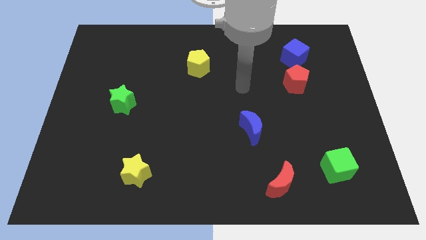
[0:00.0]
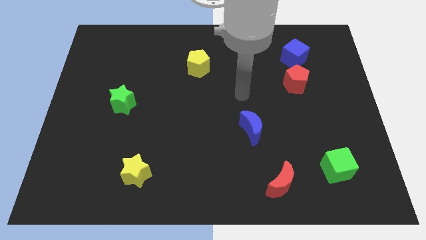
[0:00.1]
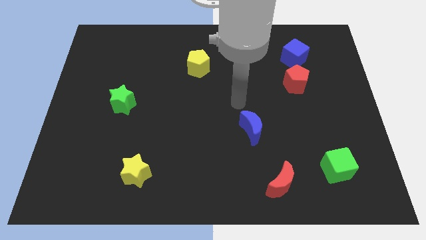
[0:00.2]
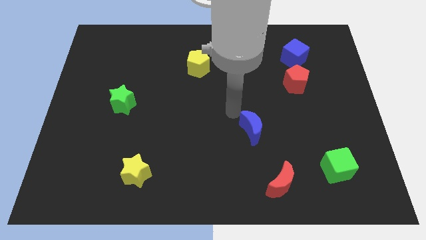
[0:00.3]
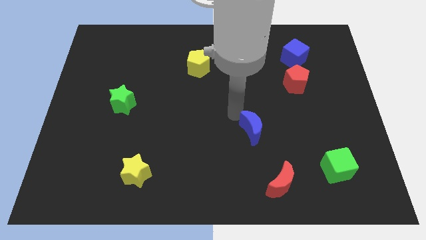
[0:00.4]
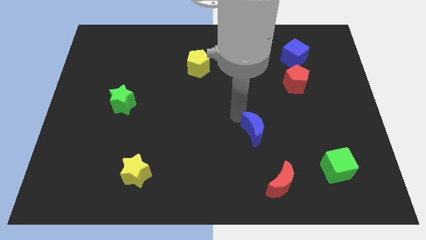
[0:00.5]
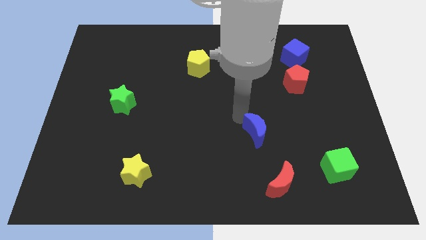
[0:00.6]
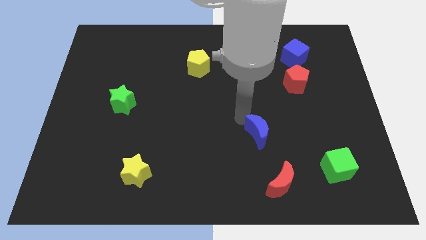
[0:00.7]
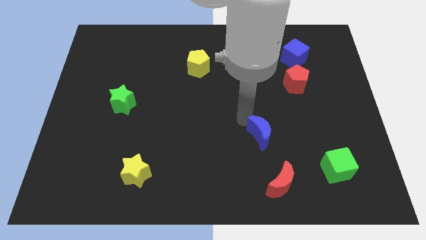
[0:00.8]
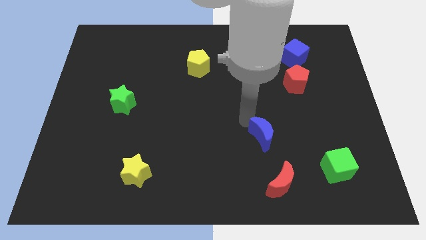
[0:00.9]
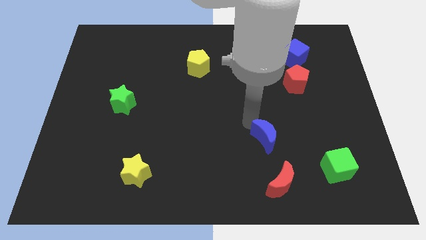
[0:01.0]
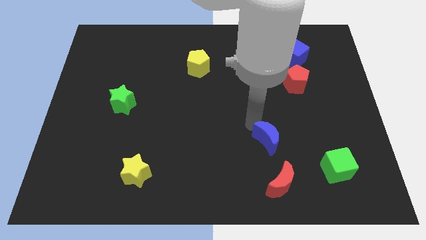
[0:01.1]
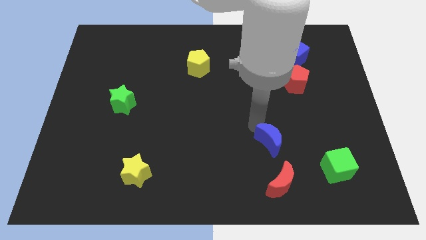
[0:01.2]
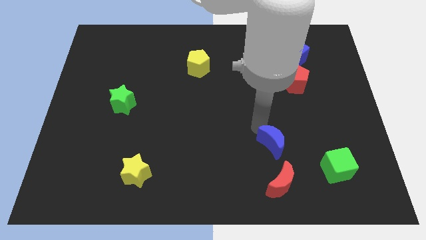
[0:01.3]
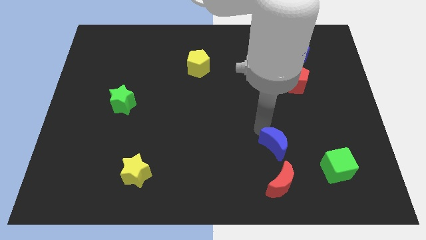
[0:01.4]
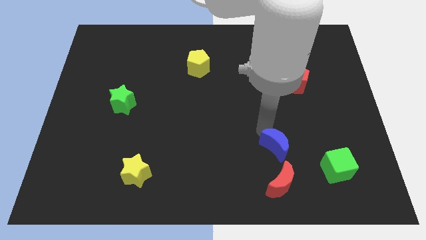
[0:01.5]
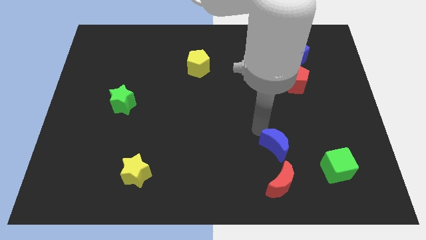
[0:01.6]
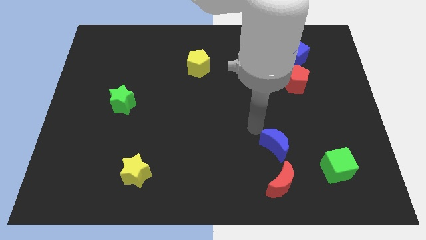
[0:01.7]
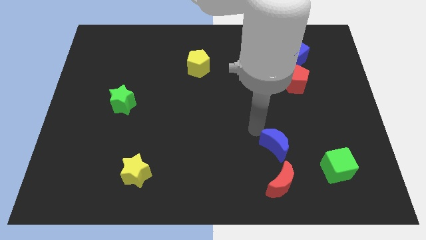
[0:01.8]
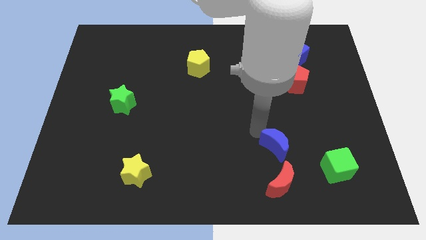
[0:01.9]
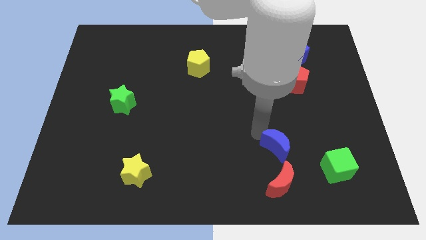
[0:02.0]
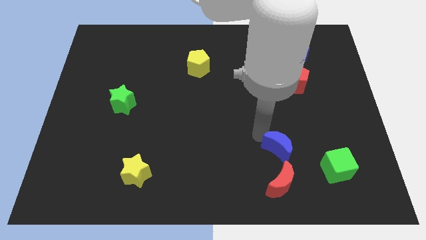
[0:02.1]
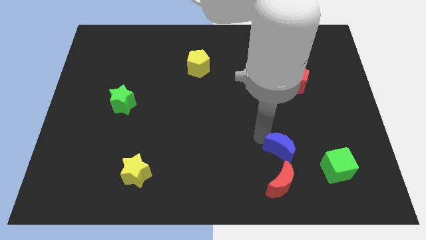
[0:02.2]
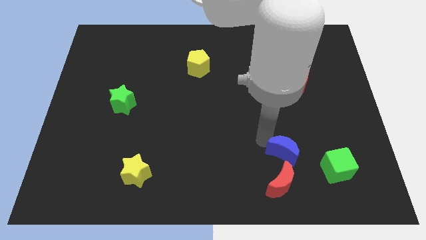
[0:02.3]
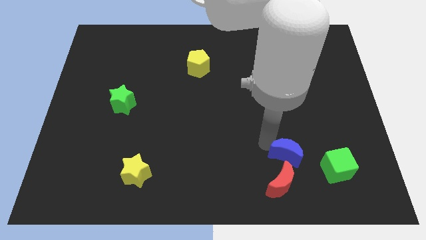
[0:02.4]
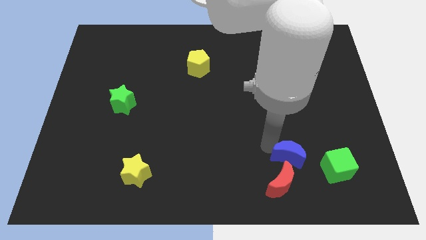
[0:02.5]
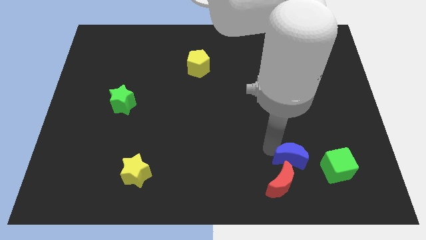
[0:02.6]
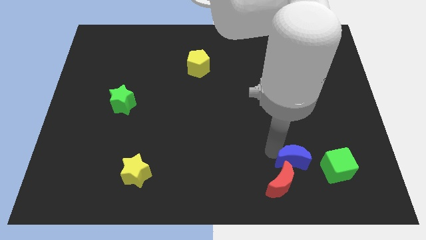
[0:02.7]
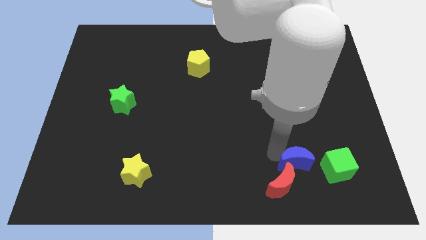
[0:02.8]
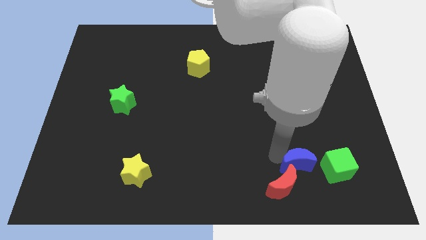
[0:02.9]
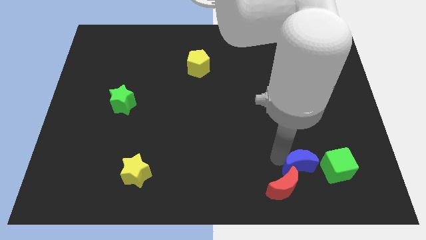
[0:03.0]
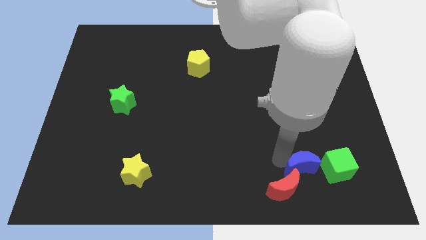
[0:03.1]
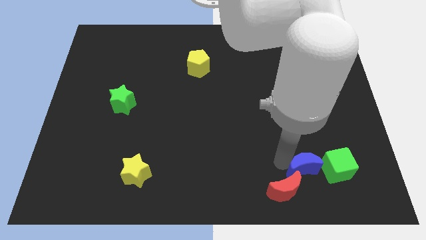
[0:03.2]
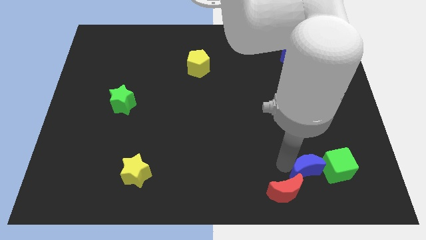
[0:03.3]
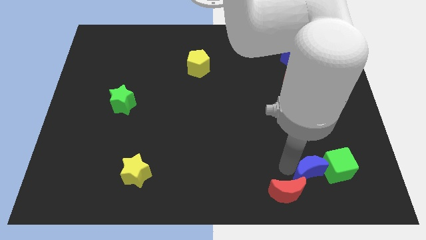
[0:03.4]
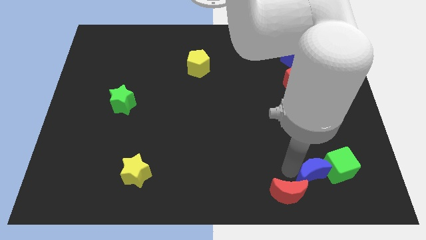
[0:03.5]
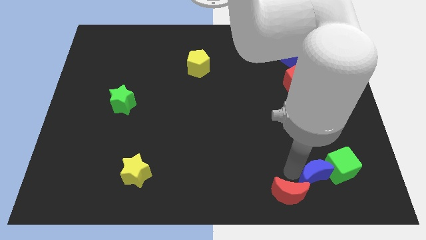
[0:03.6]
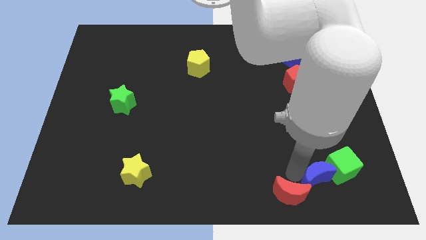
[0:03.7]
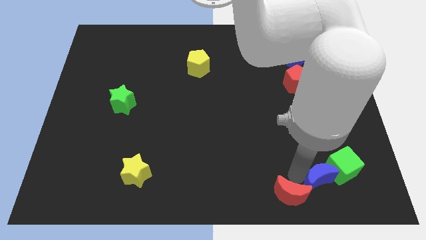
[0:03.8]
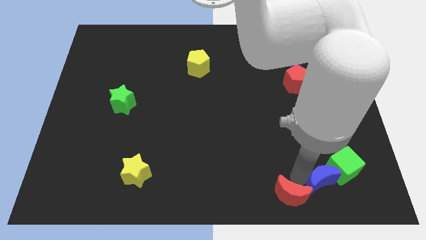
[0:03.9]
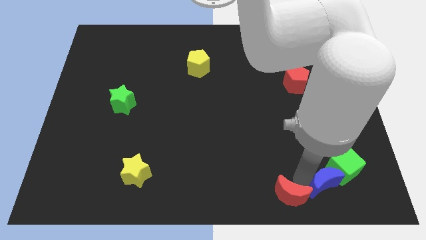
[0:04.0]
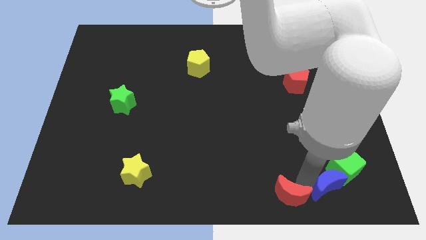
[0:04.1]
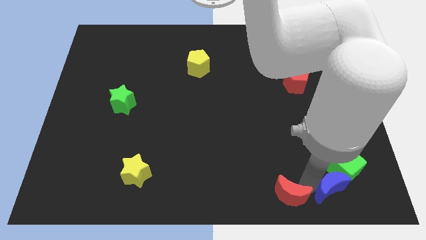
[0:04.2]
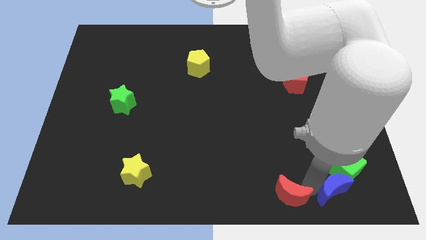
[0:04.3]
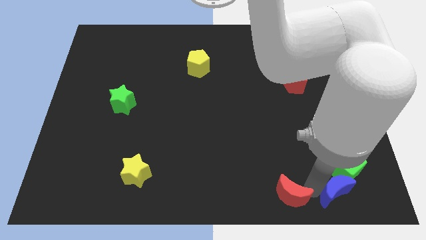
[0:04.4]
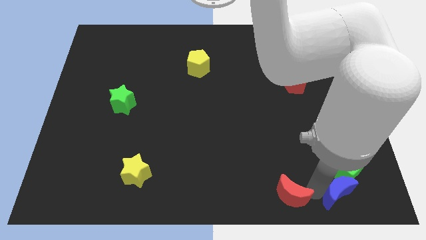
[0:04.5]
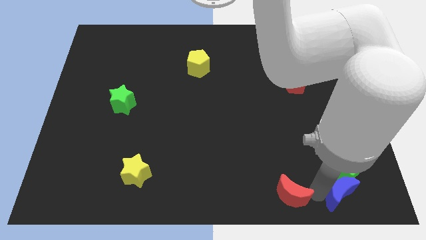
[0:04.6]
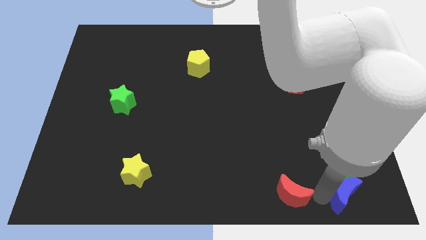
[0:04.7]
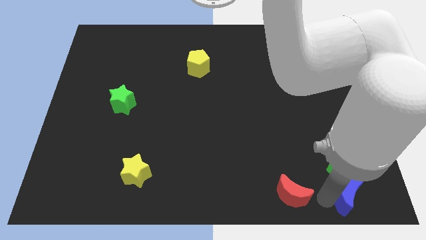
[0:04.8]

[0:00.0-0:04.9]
slide the blue moon to the lower right corner

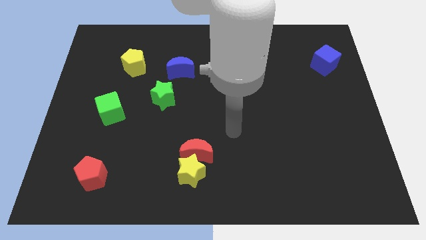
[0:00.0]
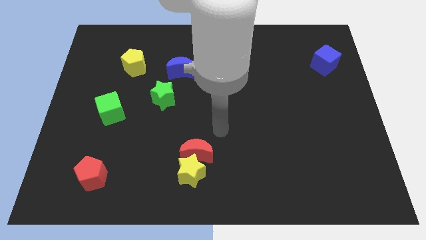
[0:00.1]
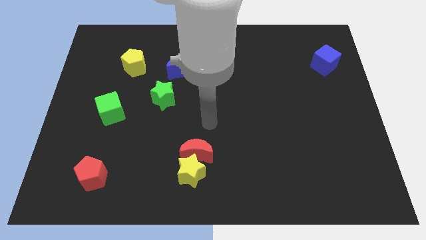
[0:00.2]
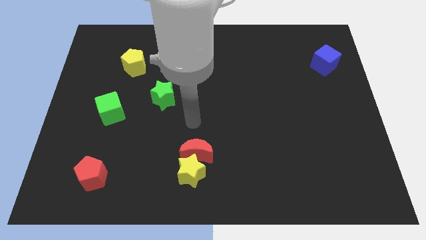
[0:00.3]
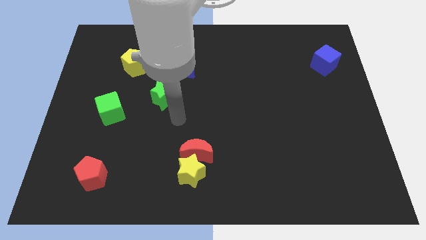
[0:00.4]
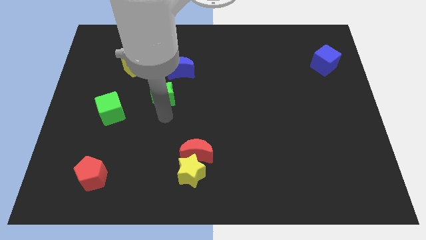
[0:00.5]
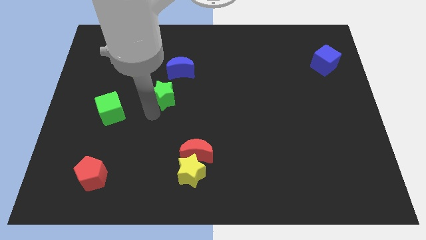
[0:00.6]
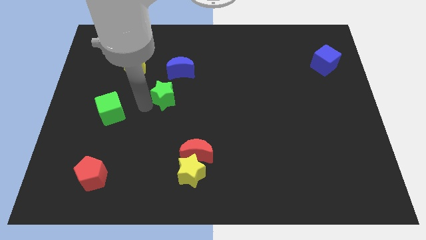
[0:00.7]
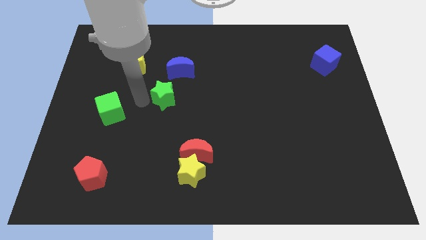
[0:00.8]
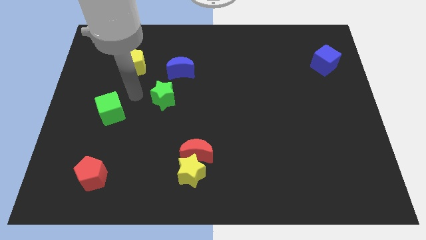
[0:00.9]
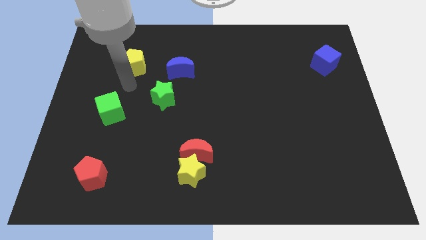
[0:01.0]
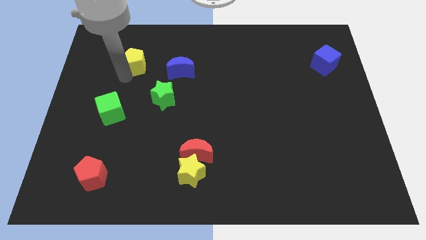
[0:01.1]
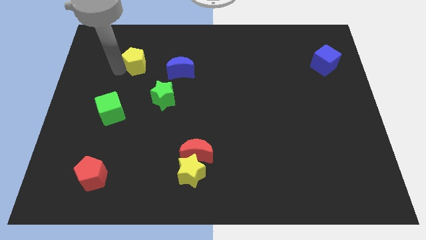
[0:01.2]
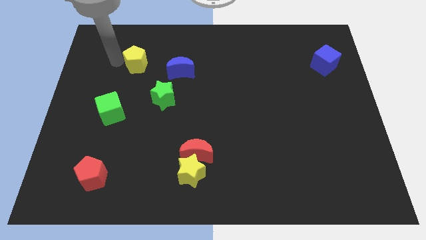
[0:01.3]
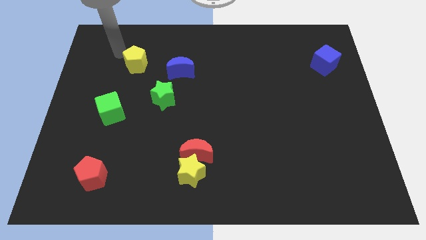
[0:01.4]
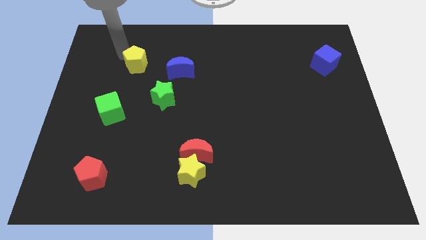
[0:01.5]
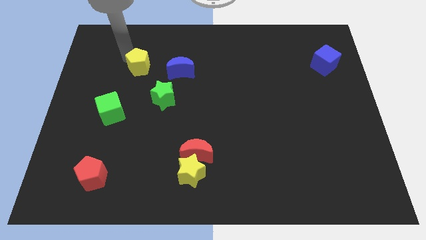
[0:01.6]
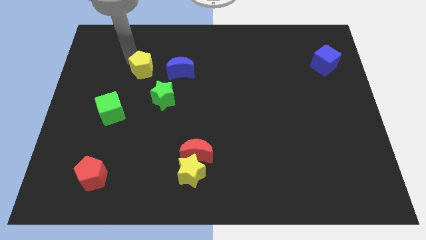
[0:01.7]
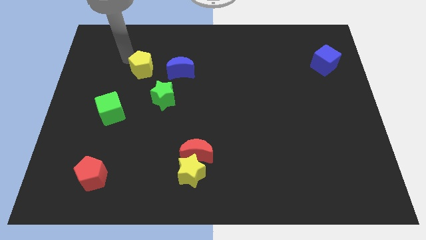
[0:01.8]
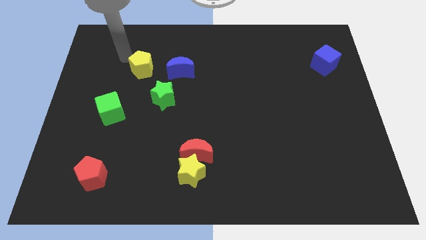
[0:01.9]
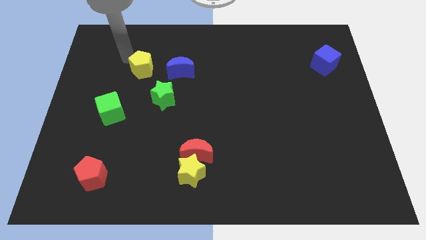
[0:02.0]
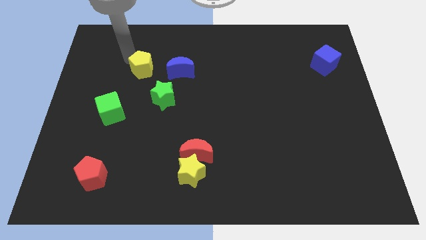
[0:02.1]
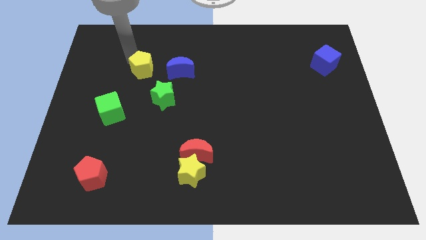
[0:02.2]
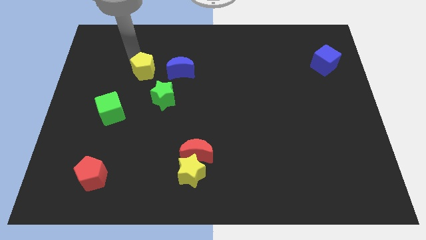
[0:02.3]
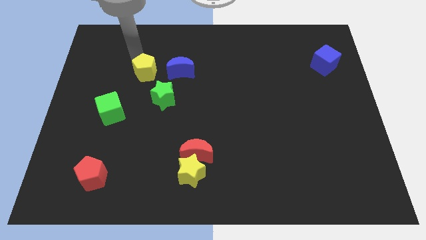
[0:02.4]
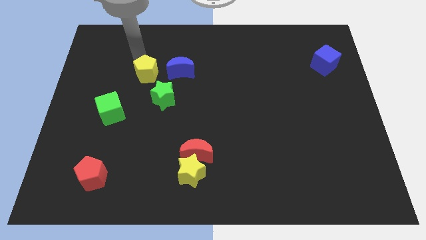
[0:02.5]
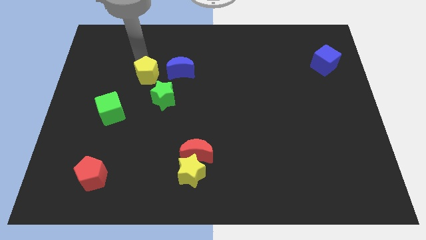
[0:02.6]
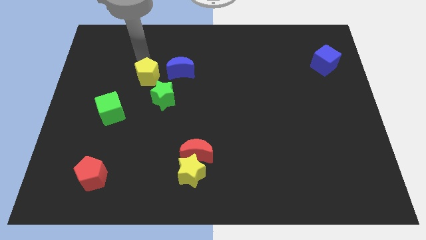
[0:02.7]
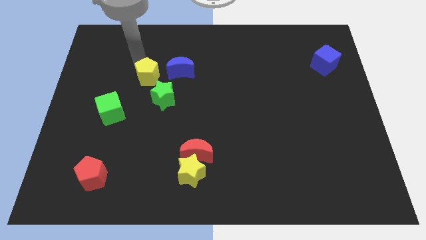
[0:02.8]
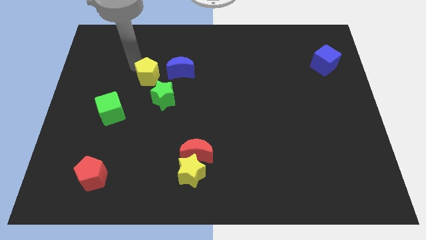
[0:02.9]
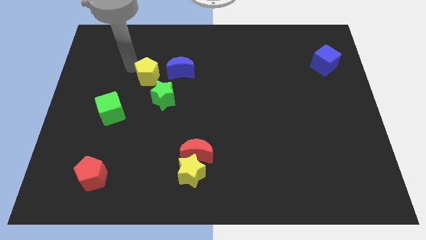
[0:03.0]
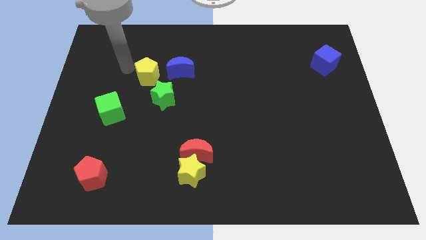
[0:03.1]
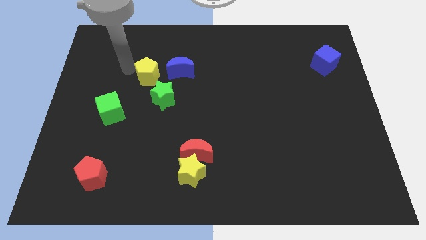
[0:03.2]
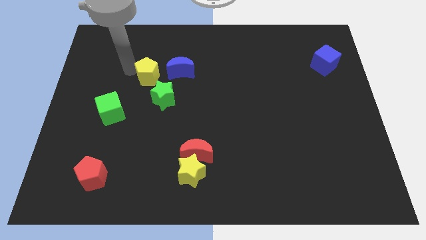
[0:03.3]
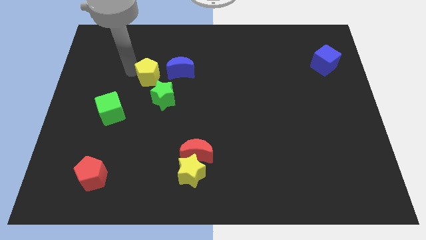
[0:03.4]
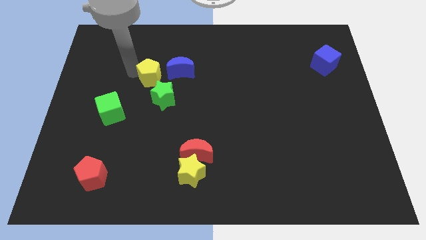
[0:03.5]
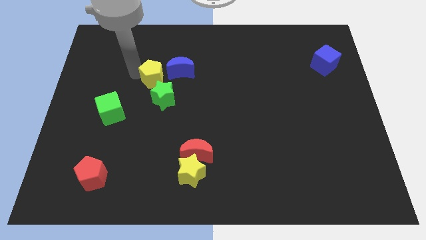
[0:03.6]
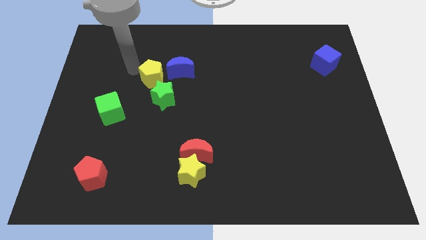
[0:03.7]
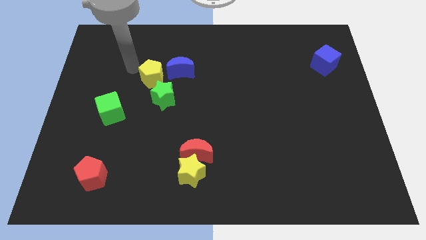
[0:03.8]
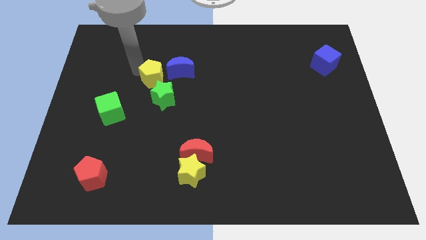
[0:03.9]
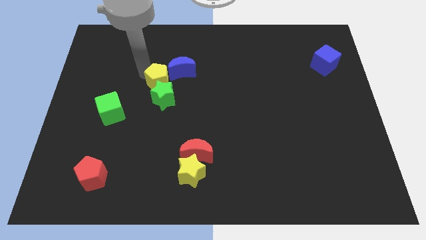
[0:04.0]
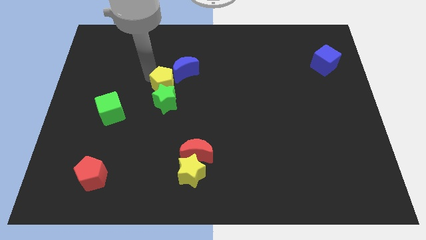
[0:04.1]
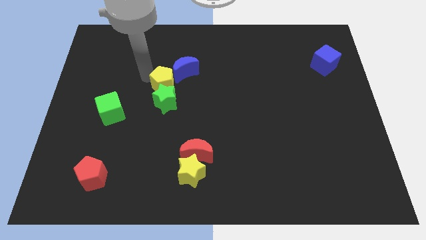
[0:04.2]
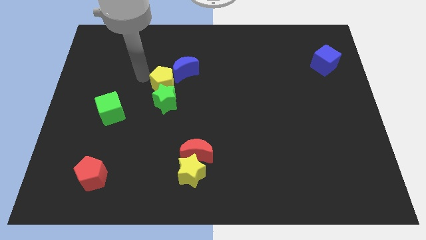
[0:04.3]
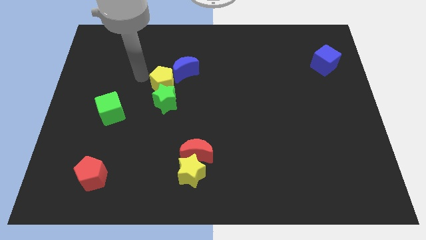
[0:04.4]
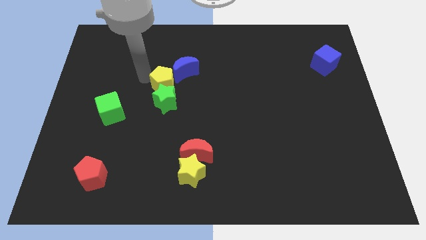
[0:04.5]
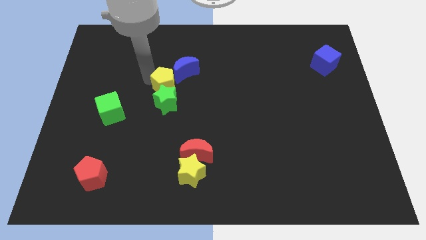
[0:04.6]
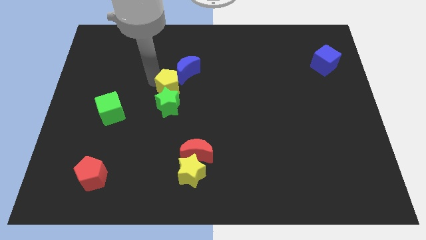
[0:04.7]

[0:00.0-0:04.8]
push the yellow pentagon to the middle of the board
